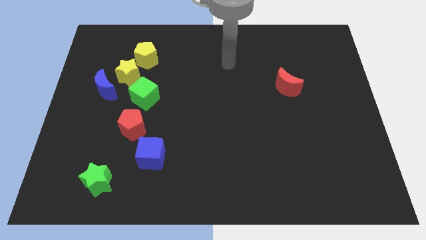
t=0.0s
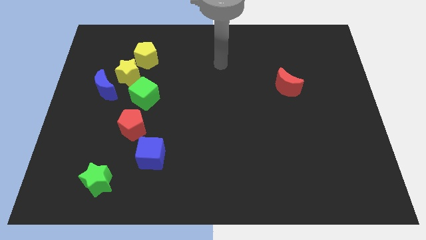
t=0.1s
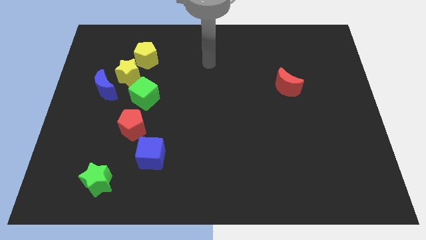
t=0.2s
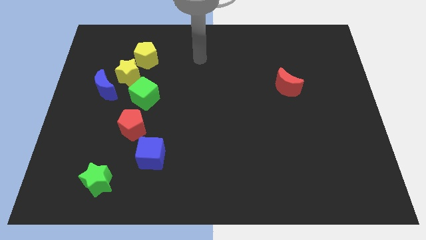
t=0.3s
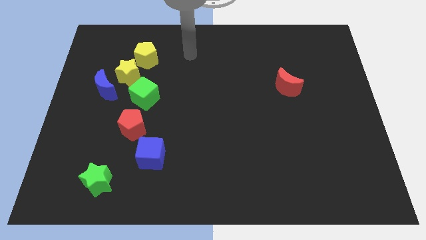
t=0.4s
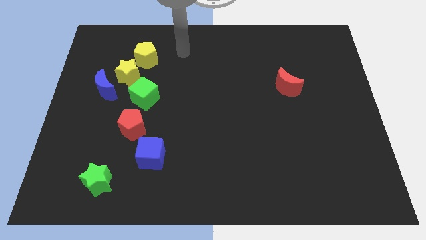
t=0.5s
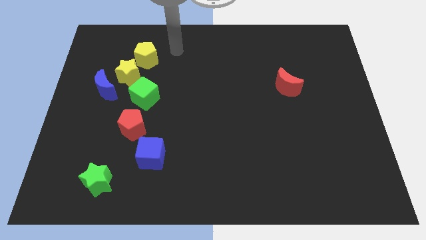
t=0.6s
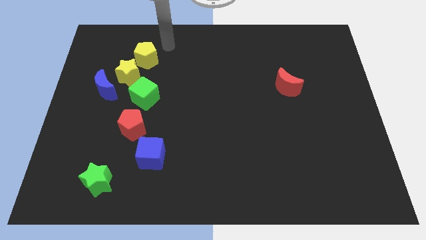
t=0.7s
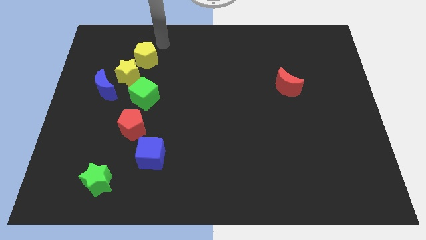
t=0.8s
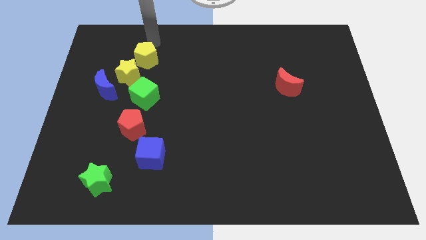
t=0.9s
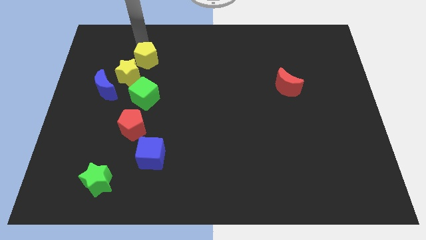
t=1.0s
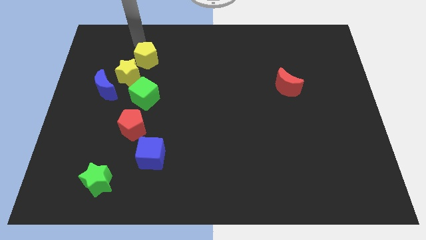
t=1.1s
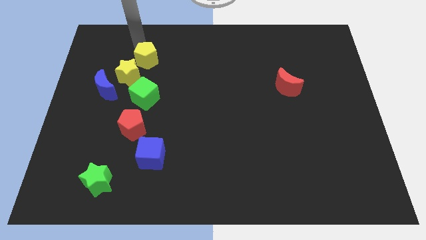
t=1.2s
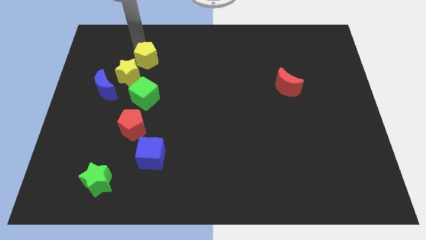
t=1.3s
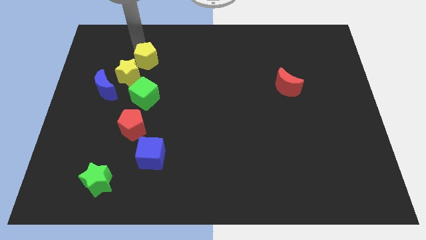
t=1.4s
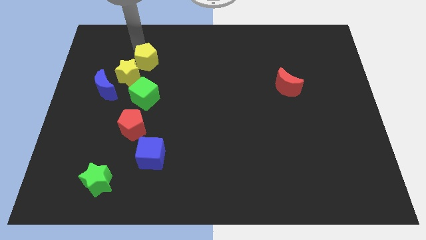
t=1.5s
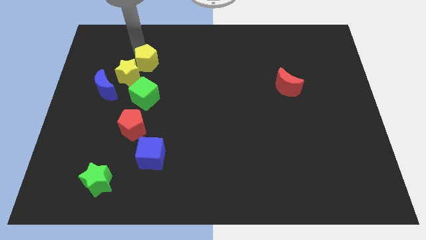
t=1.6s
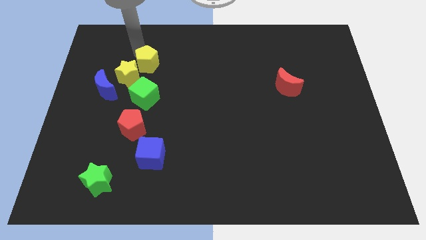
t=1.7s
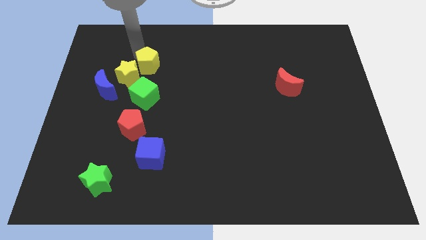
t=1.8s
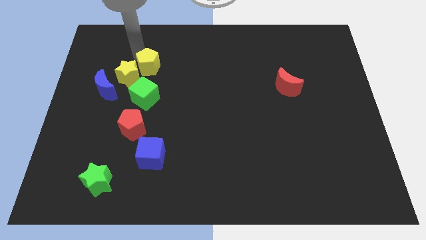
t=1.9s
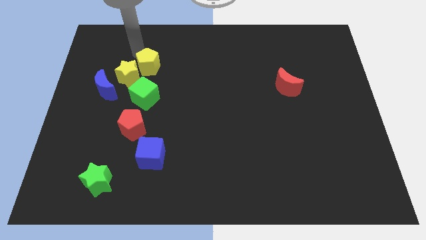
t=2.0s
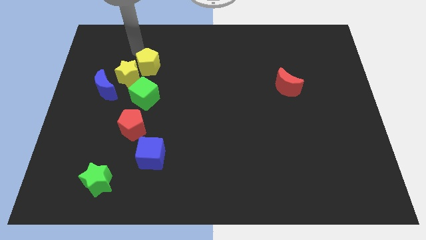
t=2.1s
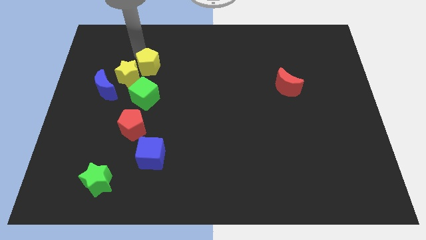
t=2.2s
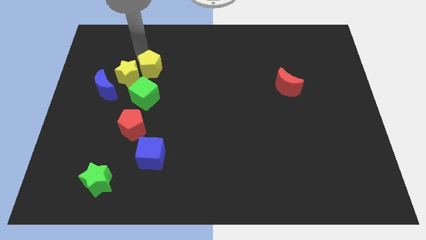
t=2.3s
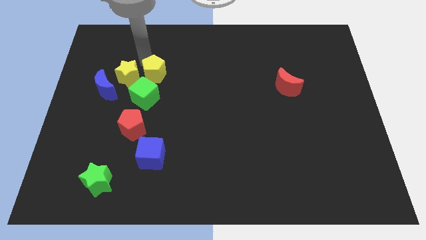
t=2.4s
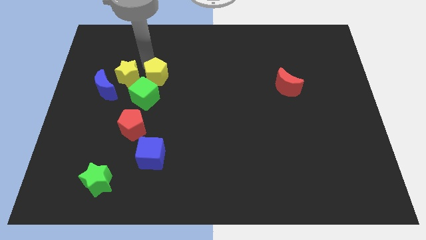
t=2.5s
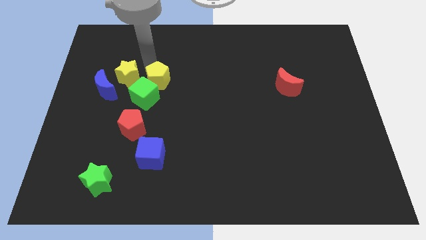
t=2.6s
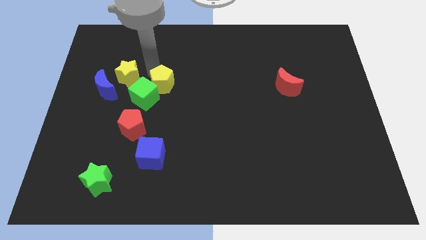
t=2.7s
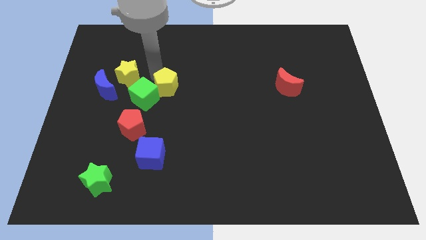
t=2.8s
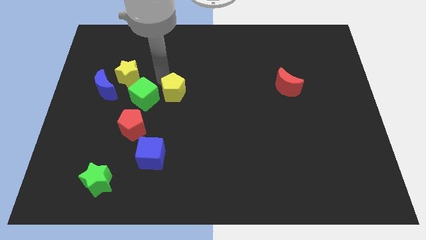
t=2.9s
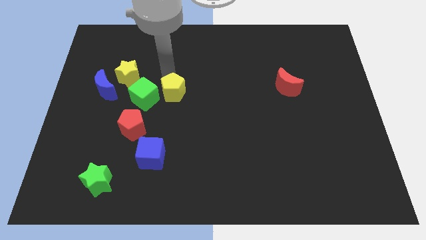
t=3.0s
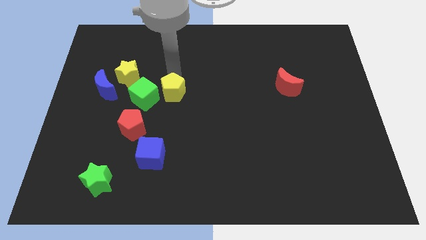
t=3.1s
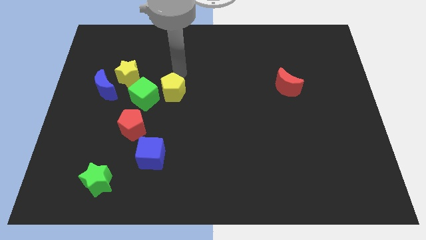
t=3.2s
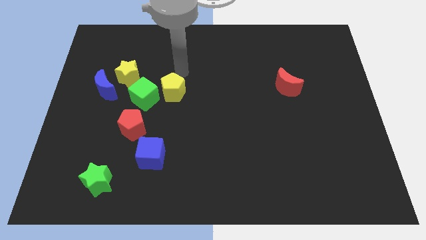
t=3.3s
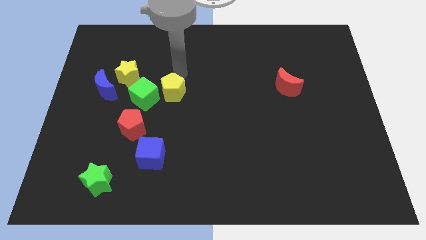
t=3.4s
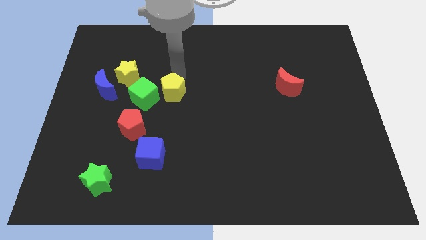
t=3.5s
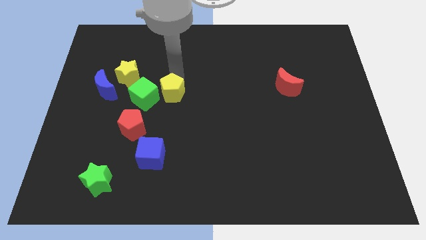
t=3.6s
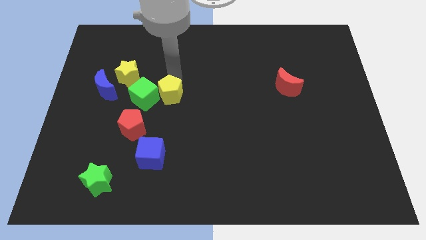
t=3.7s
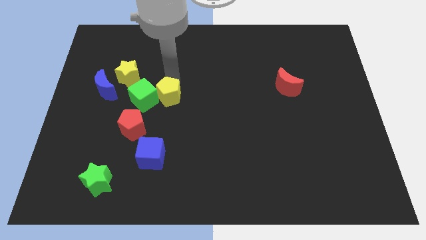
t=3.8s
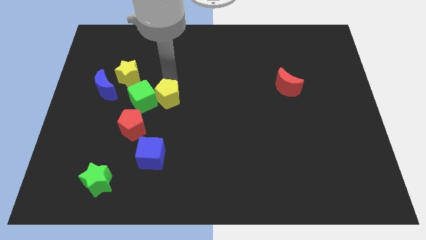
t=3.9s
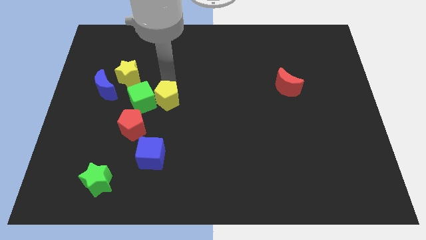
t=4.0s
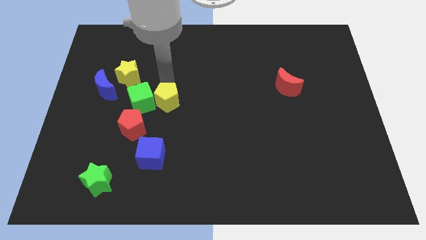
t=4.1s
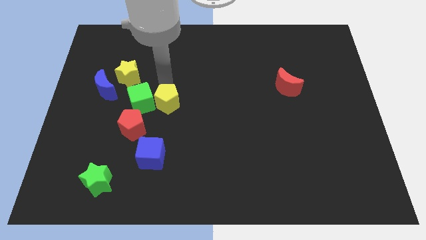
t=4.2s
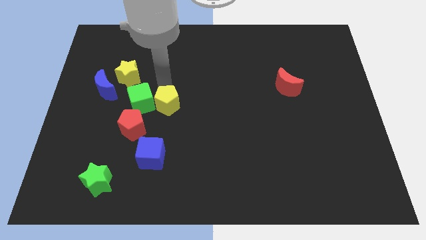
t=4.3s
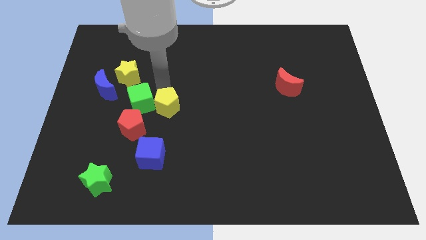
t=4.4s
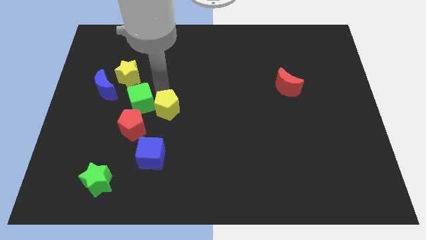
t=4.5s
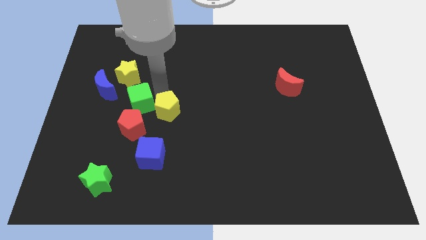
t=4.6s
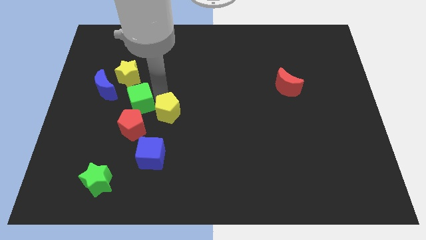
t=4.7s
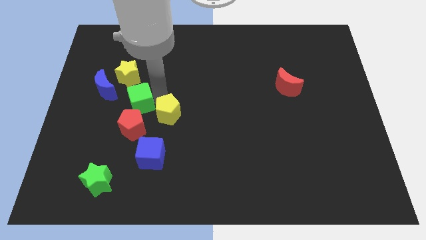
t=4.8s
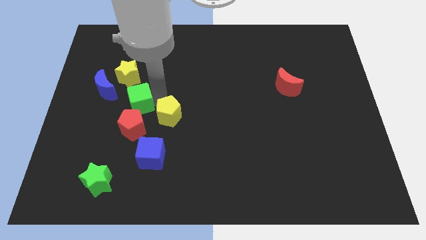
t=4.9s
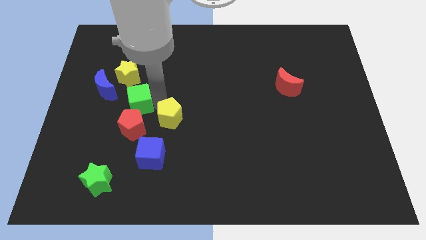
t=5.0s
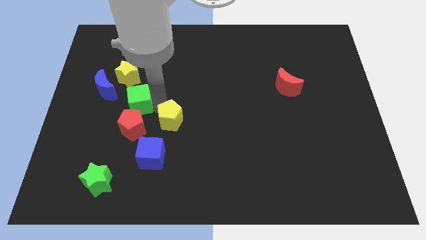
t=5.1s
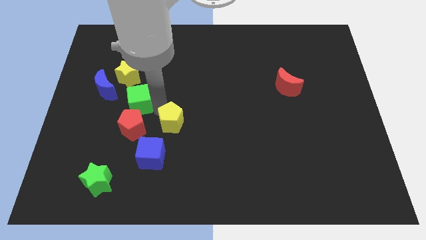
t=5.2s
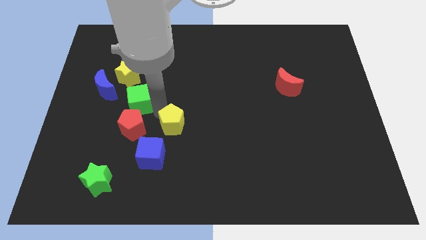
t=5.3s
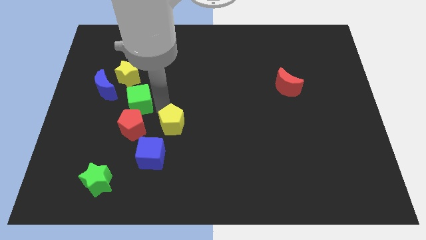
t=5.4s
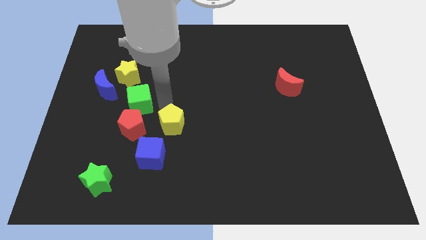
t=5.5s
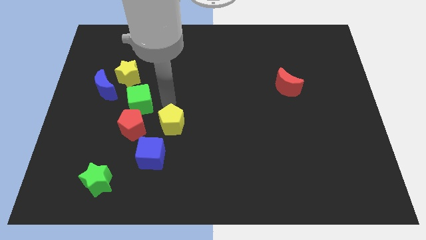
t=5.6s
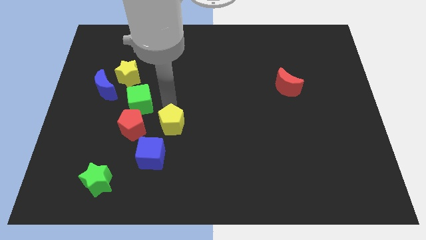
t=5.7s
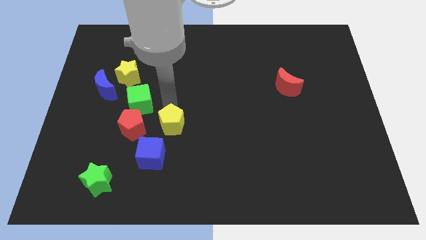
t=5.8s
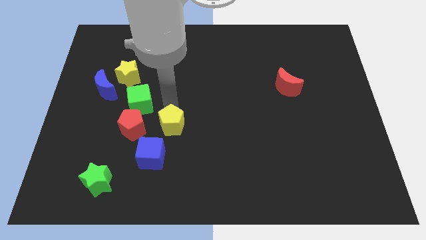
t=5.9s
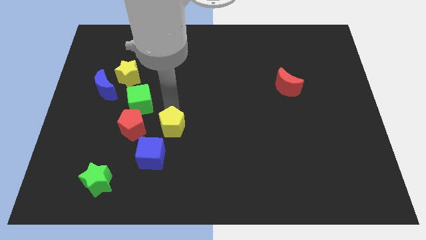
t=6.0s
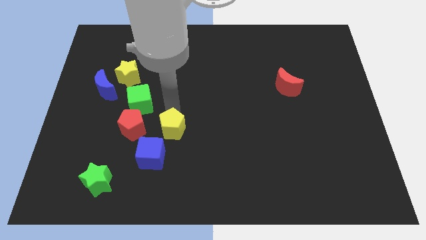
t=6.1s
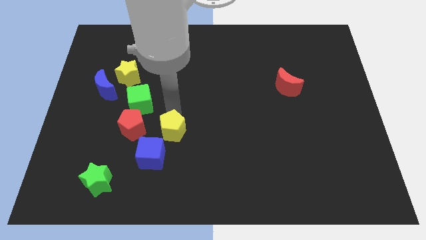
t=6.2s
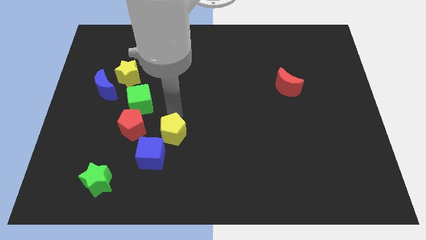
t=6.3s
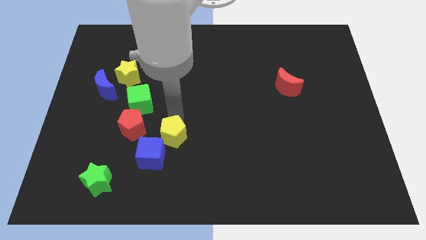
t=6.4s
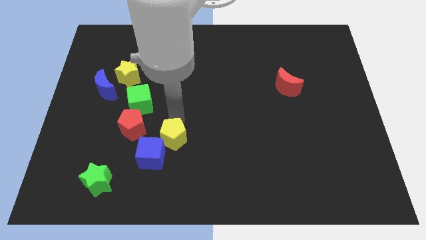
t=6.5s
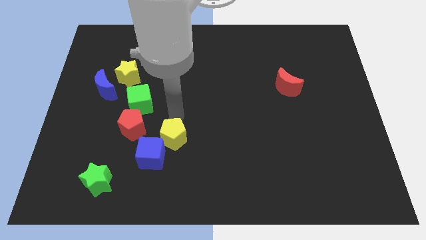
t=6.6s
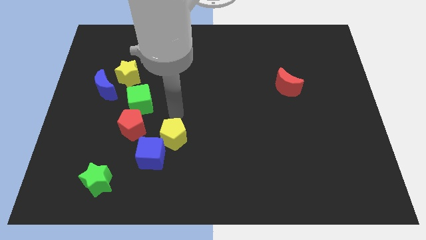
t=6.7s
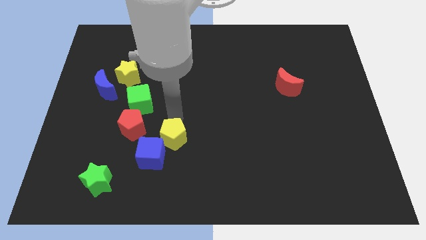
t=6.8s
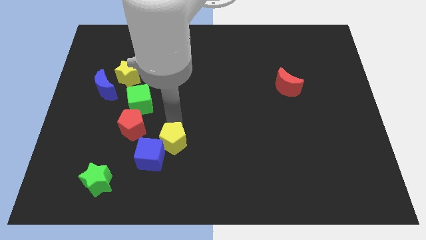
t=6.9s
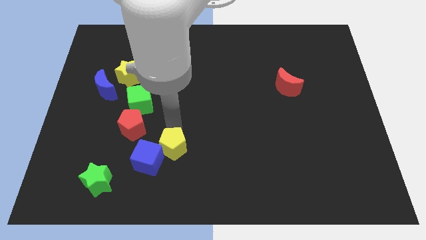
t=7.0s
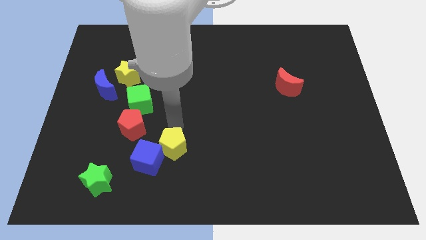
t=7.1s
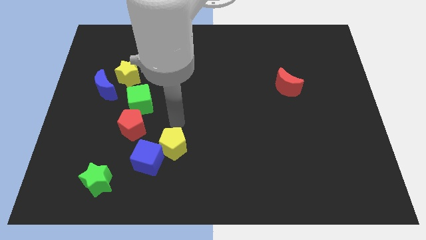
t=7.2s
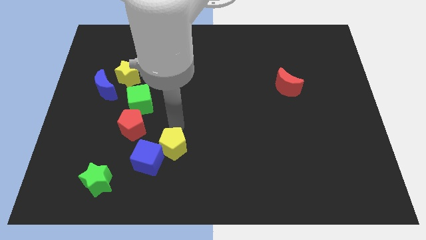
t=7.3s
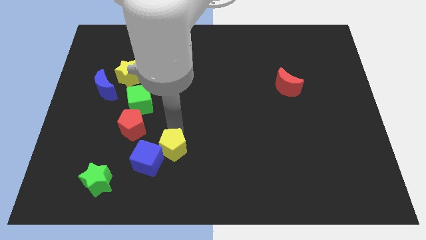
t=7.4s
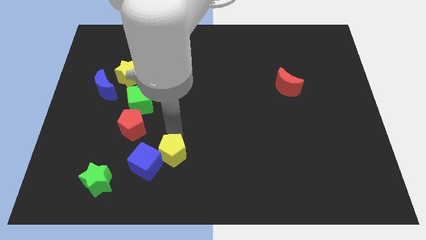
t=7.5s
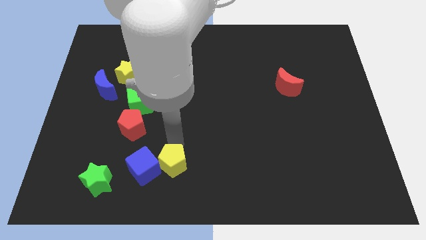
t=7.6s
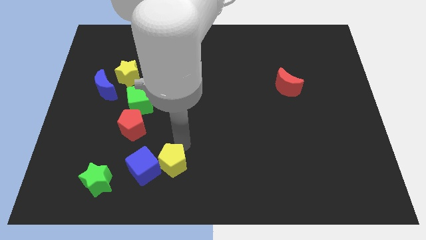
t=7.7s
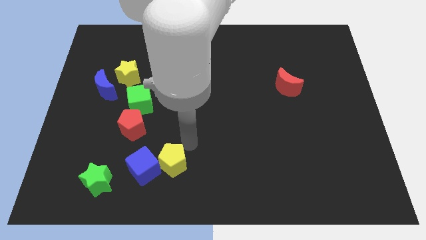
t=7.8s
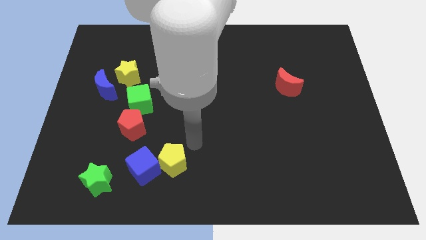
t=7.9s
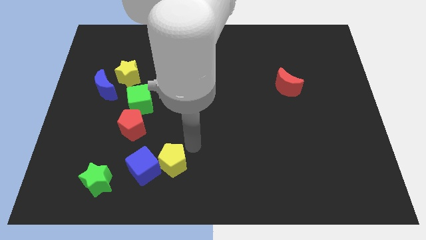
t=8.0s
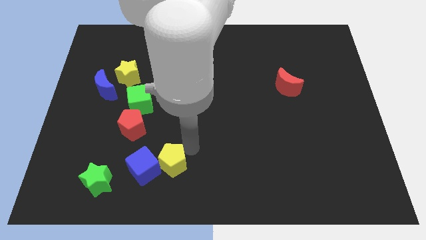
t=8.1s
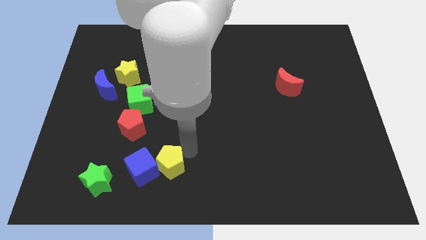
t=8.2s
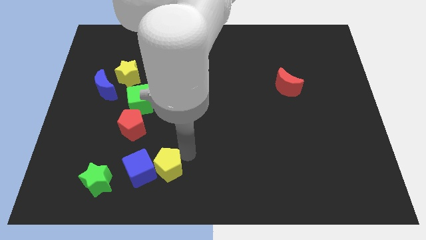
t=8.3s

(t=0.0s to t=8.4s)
move the yellow pentagon just right of the green star
